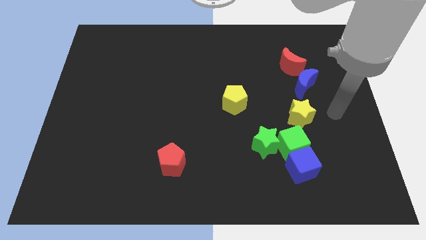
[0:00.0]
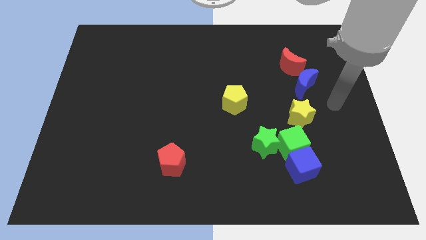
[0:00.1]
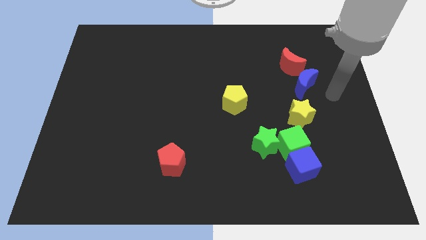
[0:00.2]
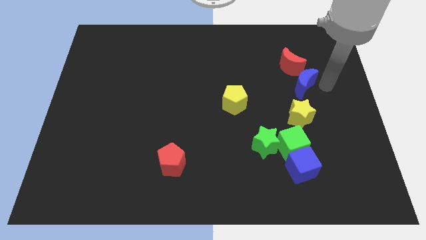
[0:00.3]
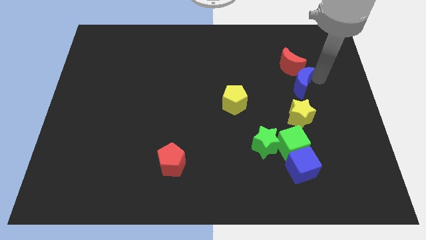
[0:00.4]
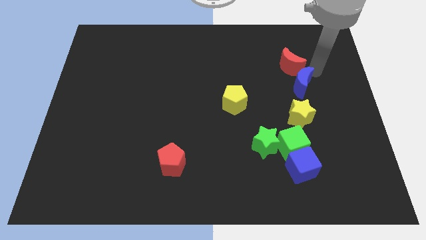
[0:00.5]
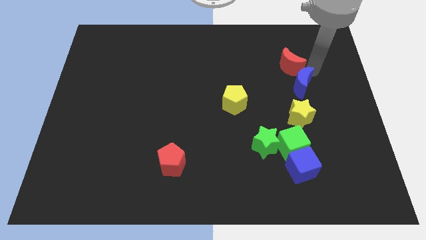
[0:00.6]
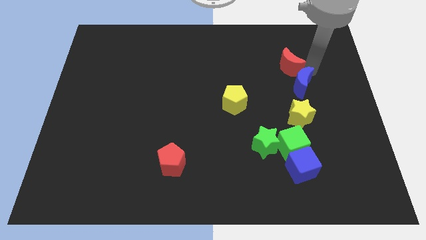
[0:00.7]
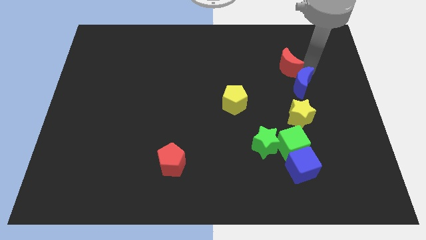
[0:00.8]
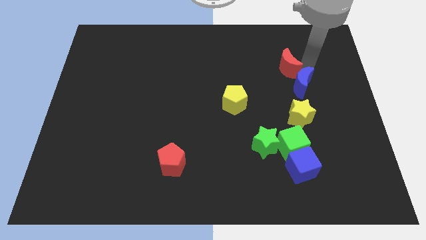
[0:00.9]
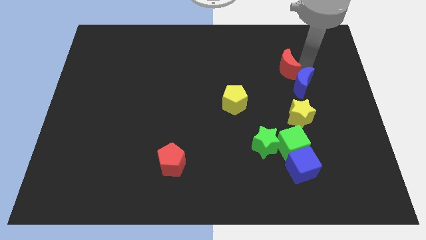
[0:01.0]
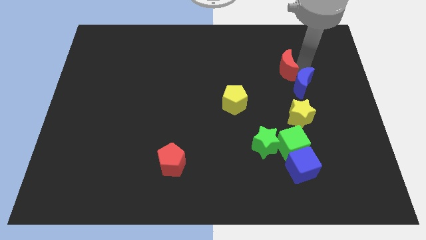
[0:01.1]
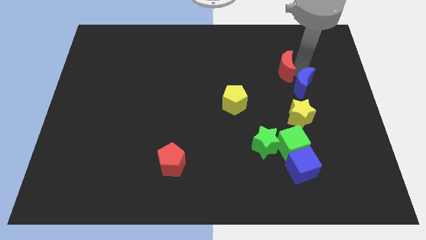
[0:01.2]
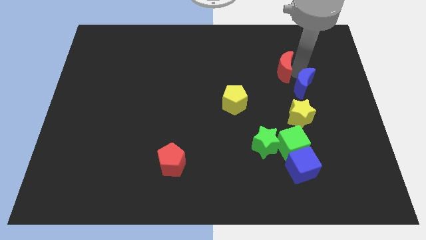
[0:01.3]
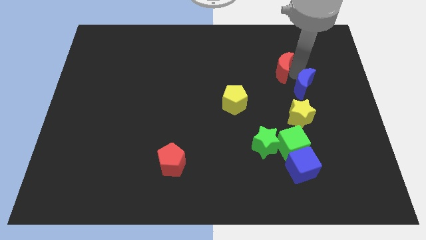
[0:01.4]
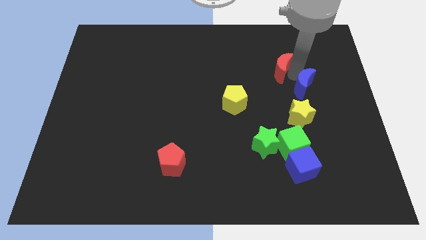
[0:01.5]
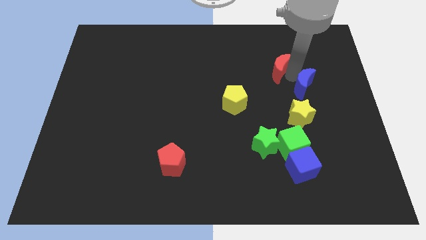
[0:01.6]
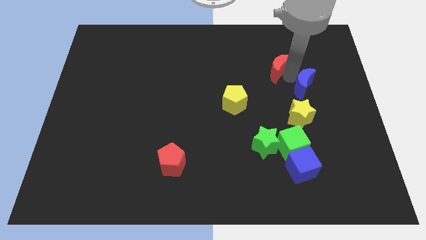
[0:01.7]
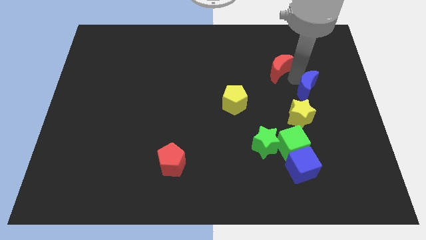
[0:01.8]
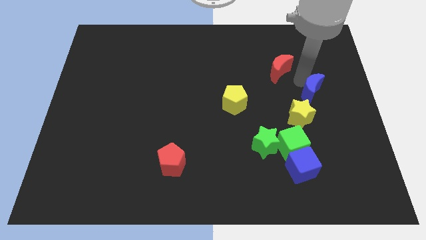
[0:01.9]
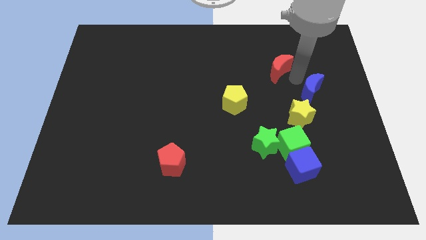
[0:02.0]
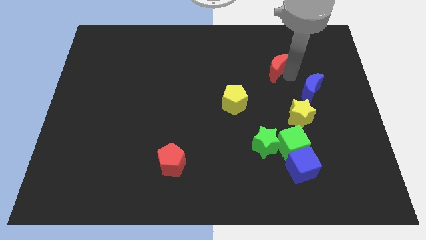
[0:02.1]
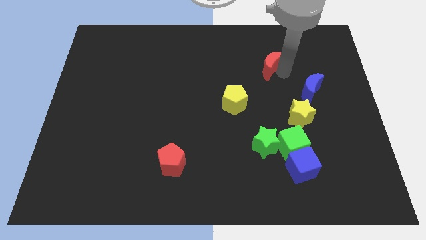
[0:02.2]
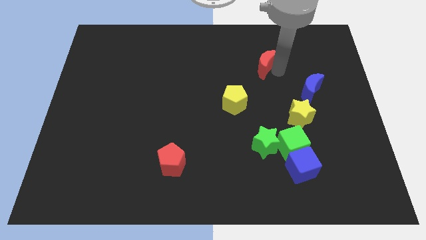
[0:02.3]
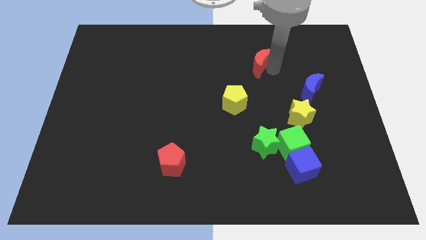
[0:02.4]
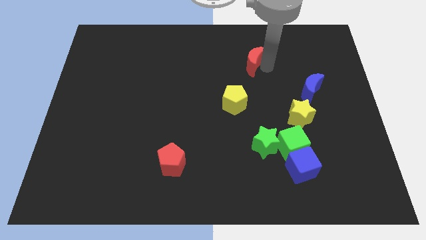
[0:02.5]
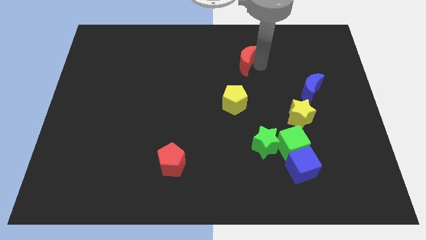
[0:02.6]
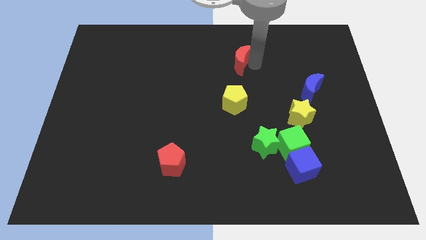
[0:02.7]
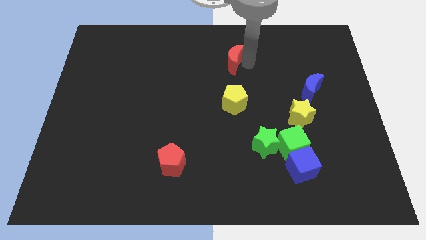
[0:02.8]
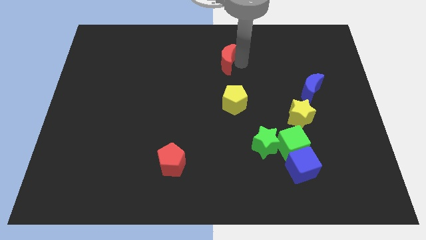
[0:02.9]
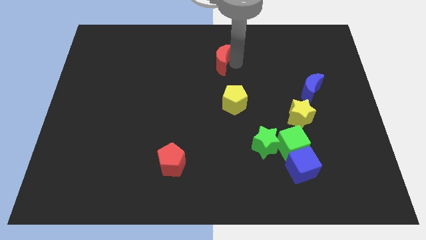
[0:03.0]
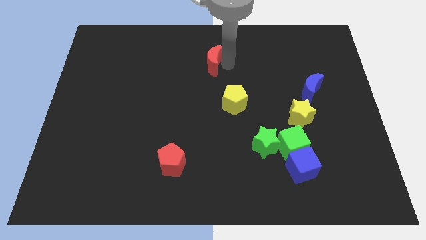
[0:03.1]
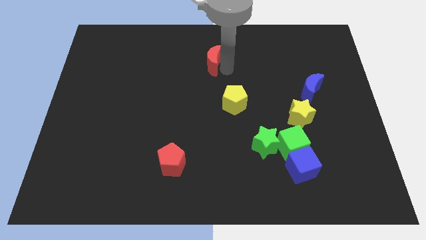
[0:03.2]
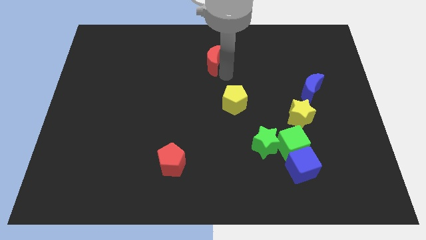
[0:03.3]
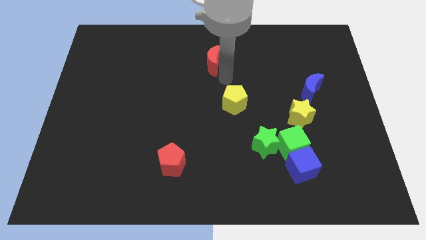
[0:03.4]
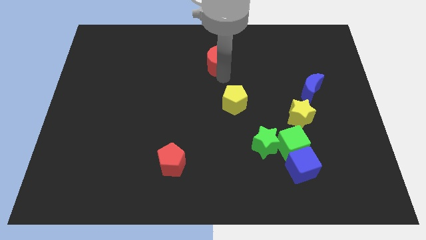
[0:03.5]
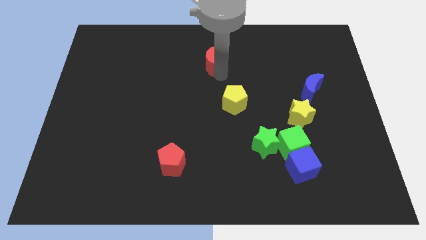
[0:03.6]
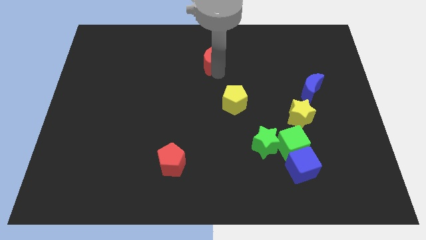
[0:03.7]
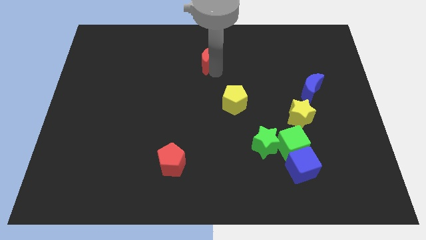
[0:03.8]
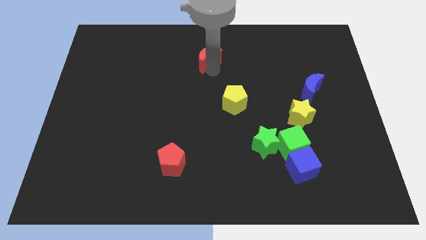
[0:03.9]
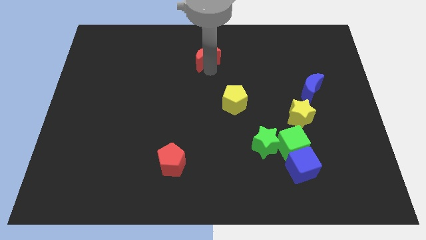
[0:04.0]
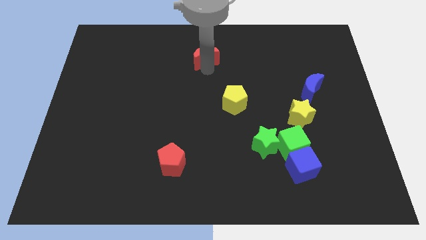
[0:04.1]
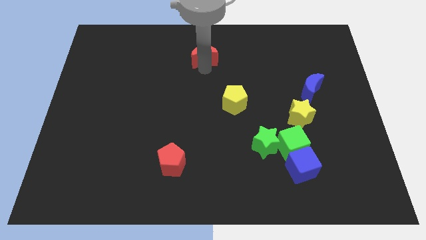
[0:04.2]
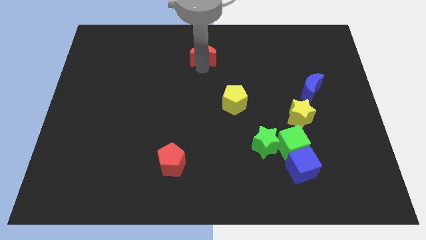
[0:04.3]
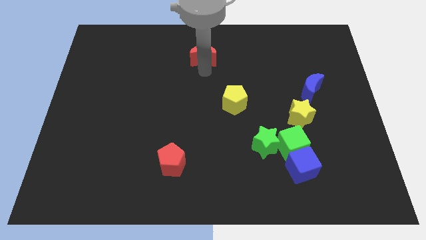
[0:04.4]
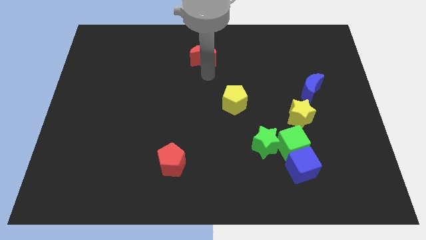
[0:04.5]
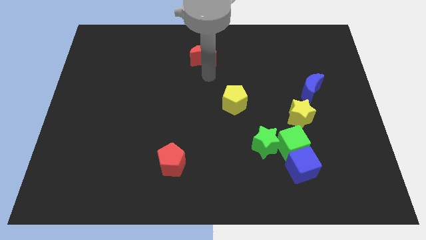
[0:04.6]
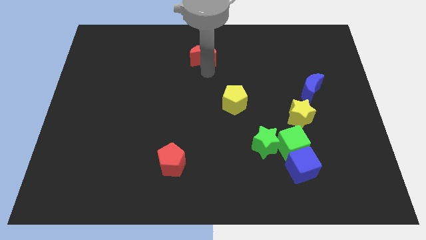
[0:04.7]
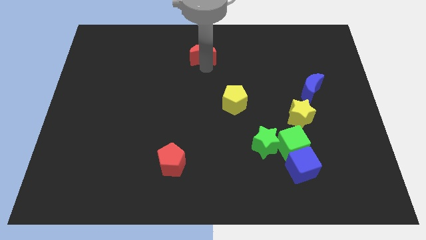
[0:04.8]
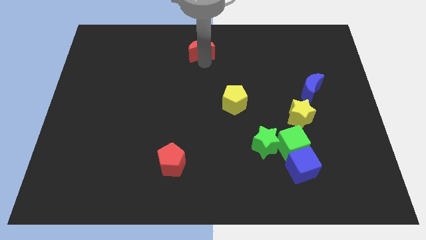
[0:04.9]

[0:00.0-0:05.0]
move the red moon to the top side

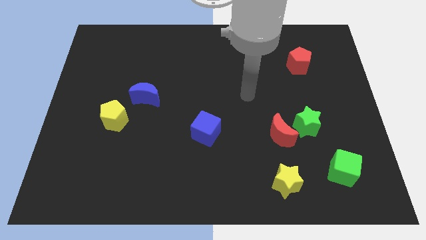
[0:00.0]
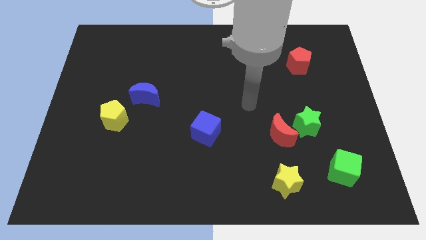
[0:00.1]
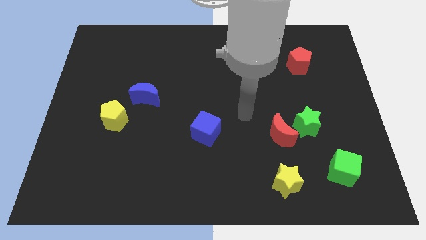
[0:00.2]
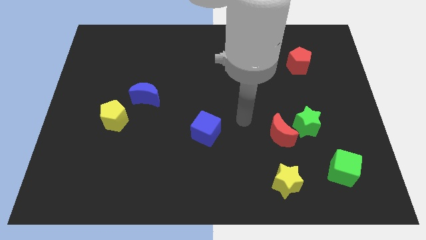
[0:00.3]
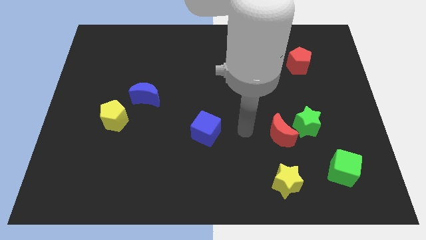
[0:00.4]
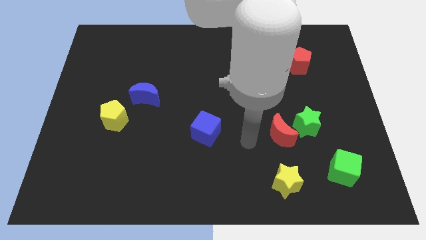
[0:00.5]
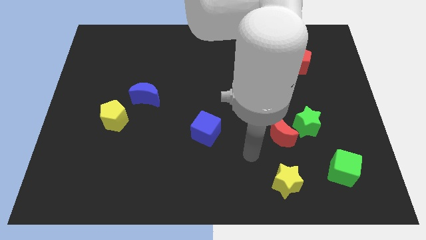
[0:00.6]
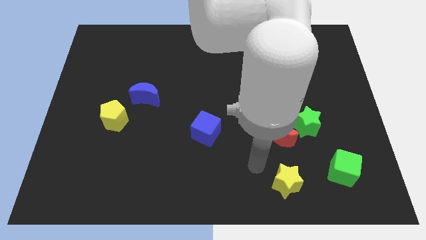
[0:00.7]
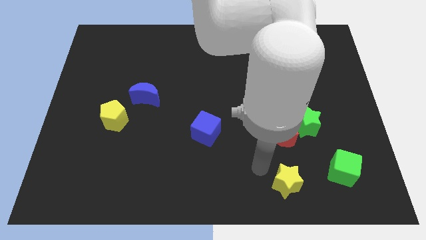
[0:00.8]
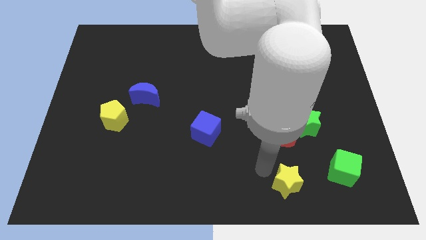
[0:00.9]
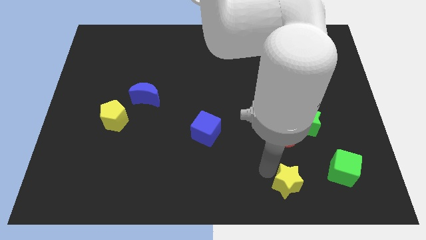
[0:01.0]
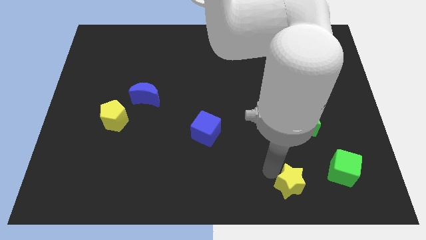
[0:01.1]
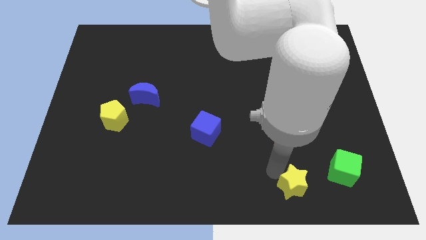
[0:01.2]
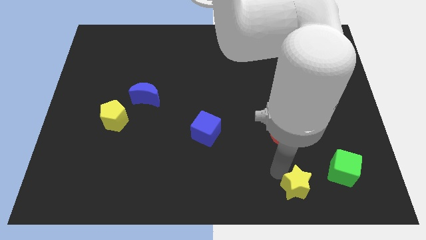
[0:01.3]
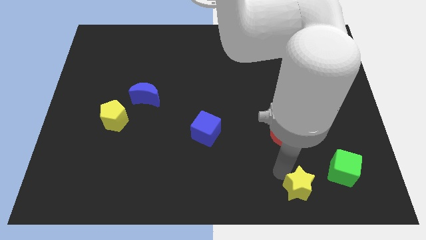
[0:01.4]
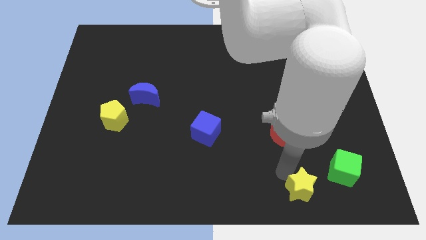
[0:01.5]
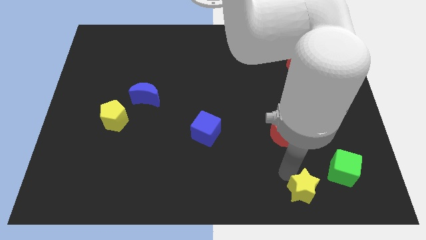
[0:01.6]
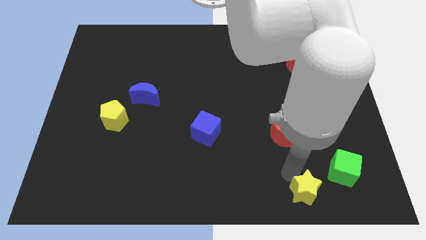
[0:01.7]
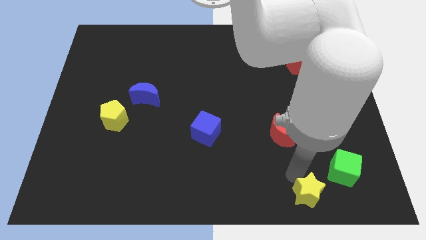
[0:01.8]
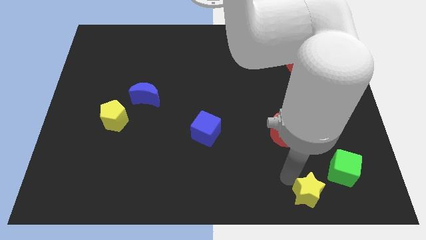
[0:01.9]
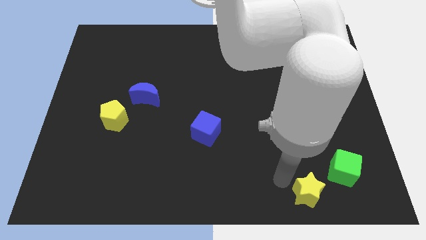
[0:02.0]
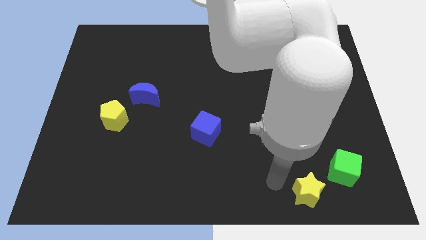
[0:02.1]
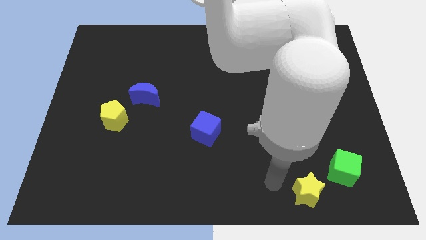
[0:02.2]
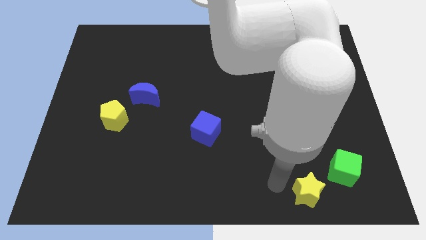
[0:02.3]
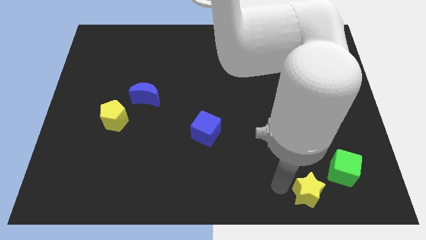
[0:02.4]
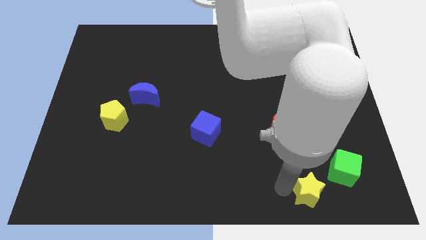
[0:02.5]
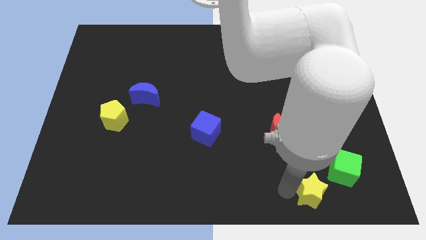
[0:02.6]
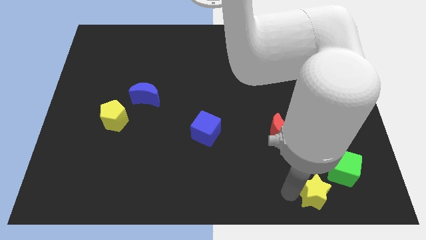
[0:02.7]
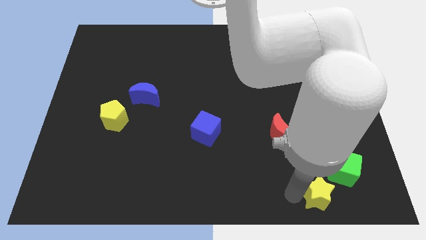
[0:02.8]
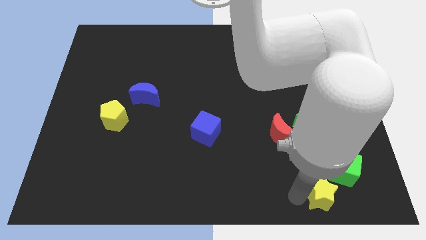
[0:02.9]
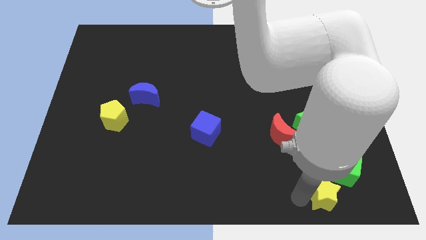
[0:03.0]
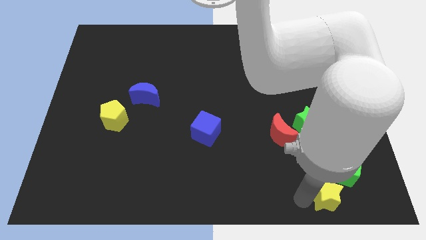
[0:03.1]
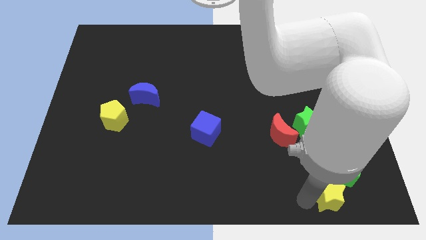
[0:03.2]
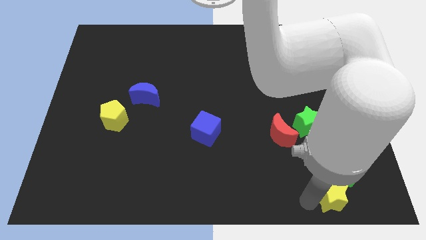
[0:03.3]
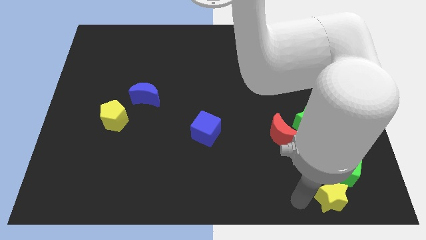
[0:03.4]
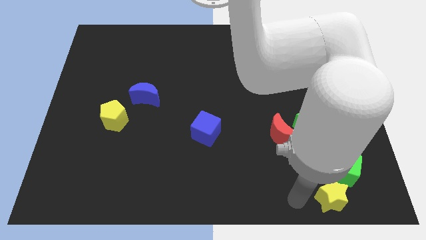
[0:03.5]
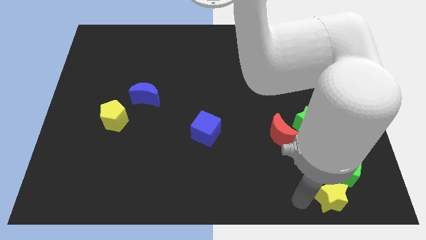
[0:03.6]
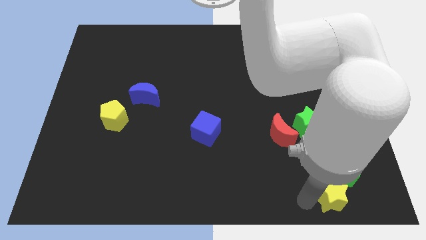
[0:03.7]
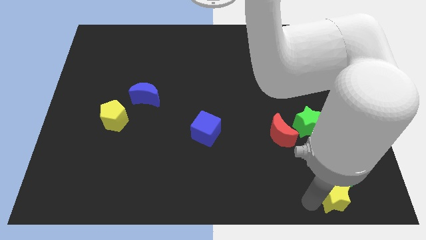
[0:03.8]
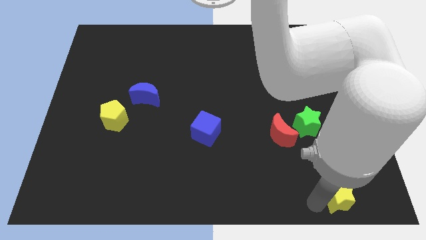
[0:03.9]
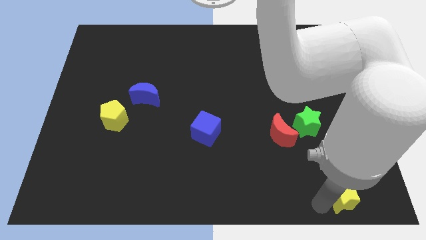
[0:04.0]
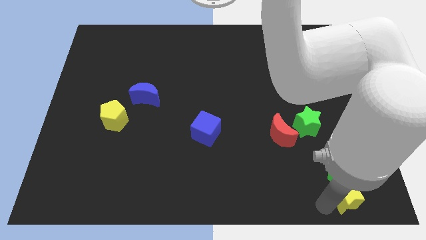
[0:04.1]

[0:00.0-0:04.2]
push the yellow star to the bottom right corner
